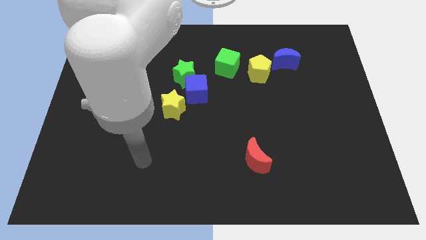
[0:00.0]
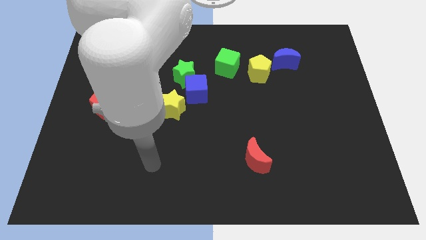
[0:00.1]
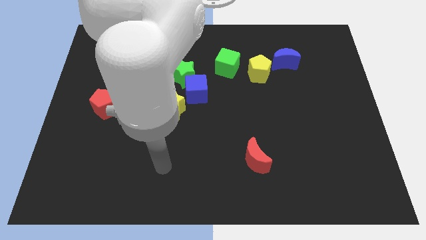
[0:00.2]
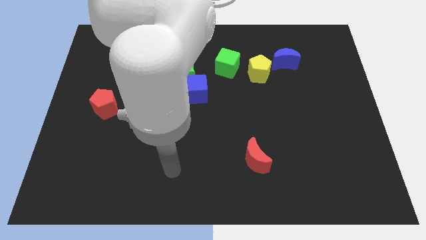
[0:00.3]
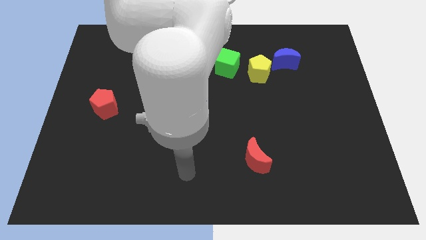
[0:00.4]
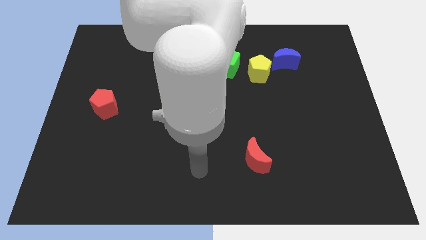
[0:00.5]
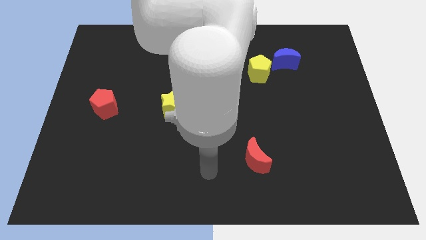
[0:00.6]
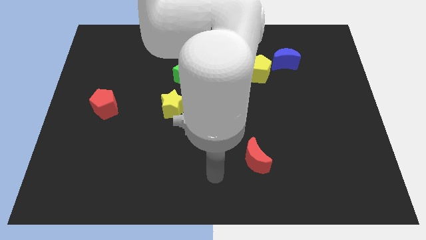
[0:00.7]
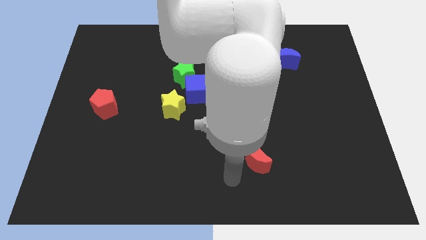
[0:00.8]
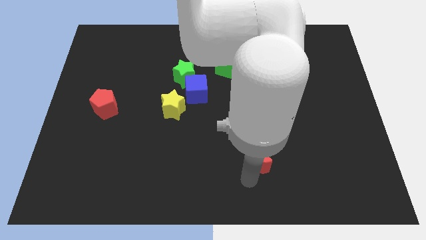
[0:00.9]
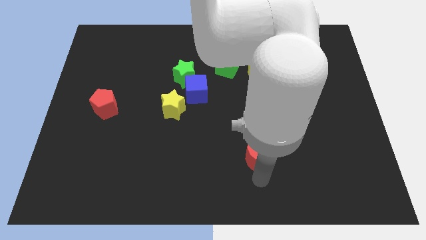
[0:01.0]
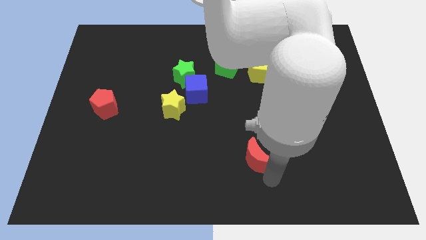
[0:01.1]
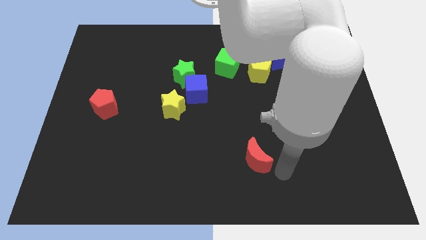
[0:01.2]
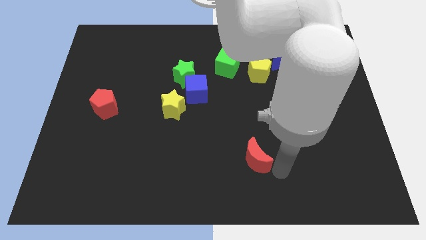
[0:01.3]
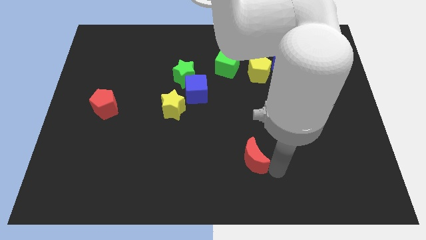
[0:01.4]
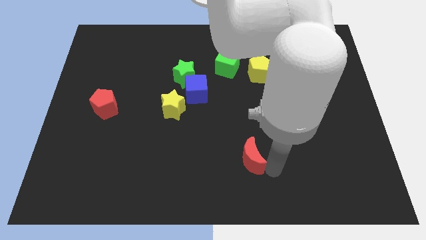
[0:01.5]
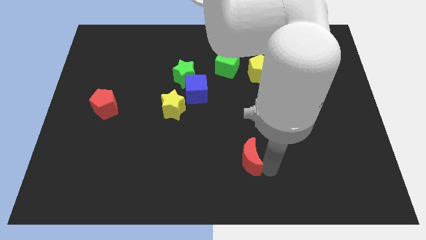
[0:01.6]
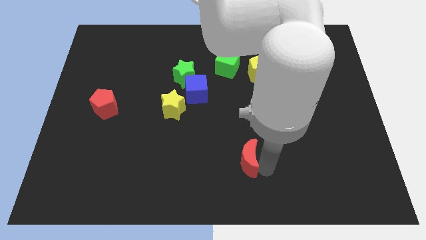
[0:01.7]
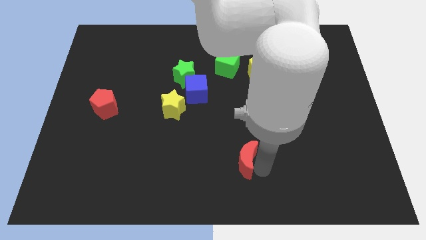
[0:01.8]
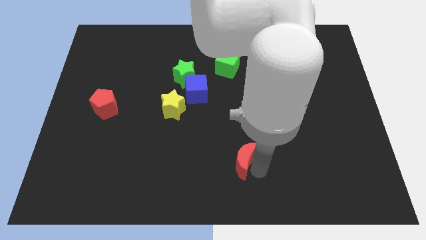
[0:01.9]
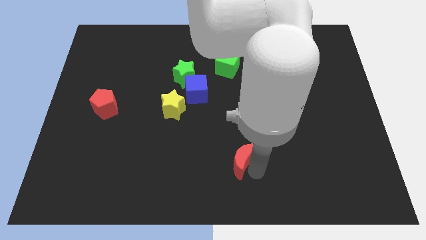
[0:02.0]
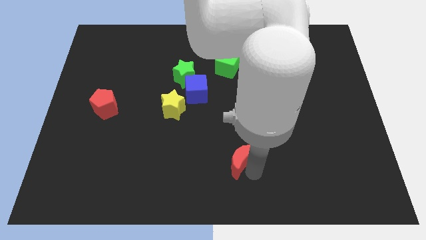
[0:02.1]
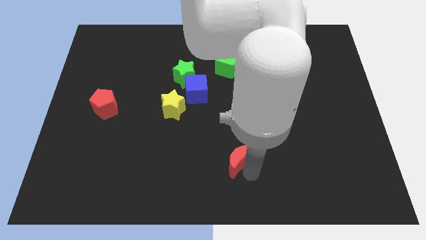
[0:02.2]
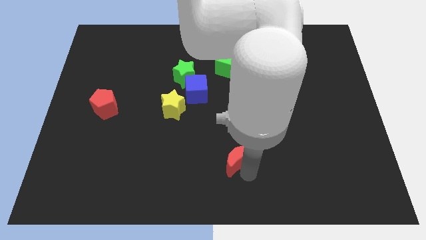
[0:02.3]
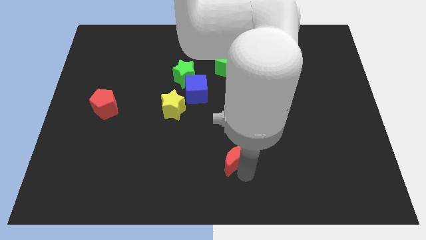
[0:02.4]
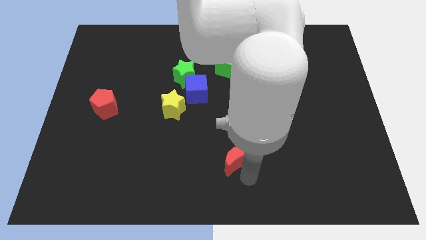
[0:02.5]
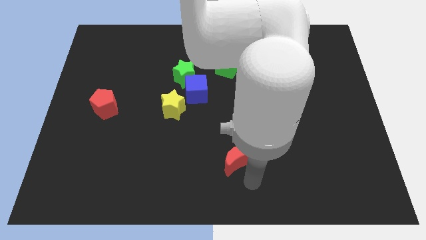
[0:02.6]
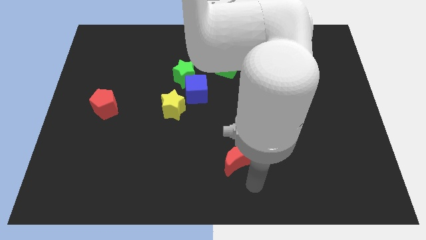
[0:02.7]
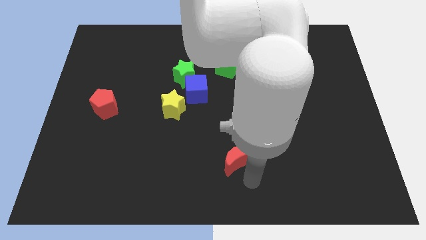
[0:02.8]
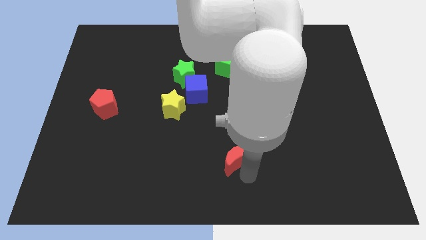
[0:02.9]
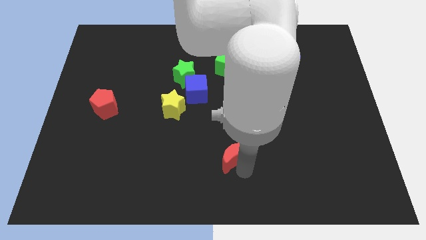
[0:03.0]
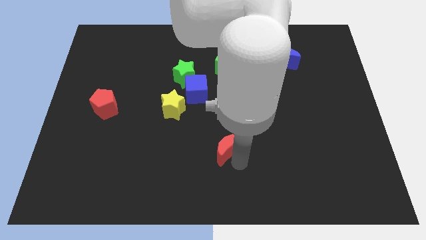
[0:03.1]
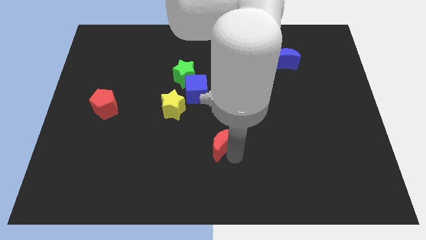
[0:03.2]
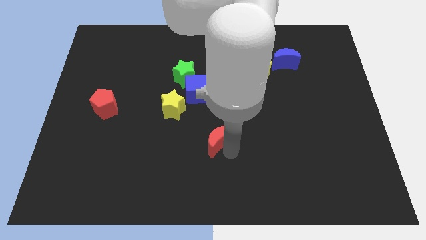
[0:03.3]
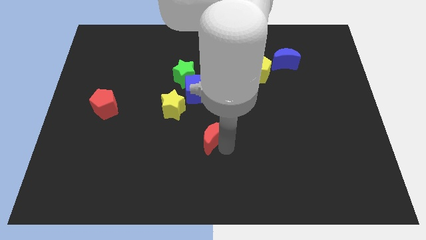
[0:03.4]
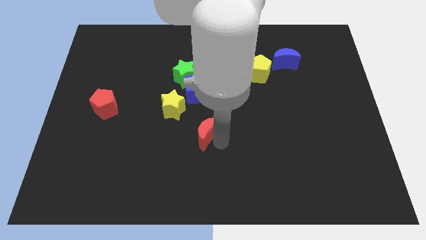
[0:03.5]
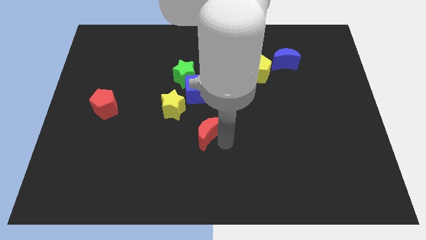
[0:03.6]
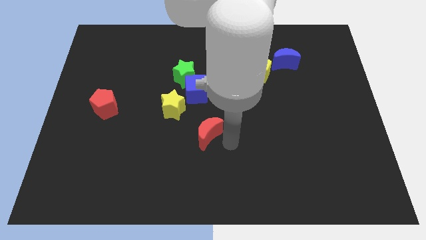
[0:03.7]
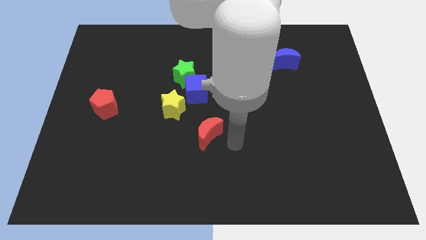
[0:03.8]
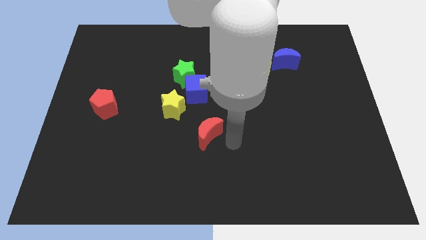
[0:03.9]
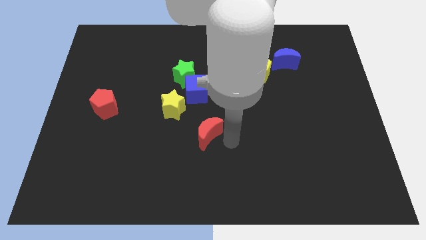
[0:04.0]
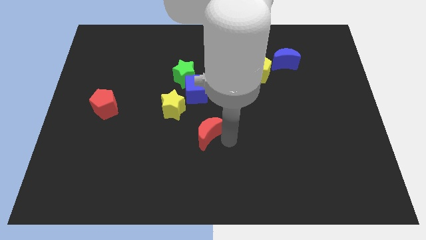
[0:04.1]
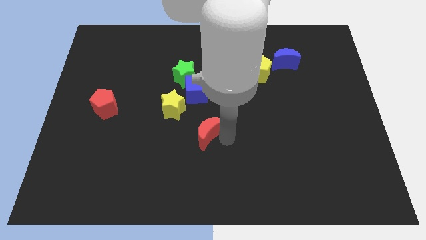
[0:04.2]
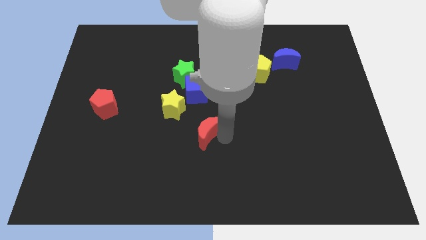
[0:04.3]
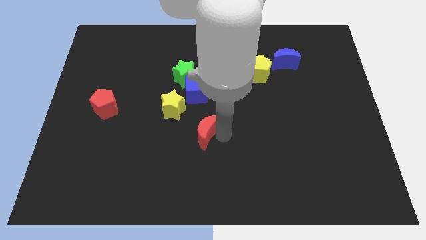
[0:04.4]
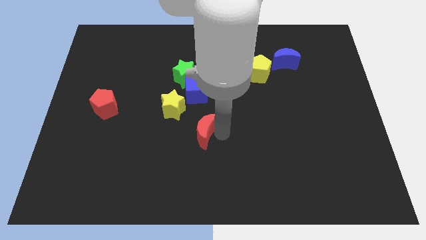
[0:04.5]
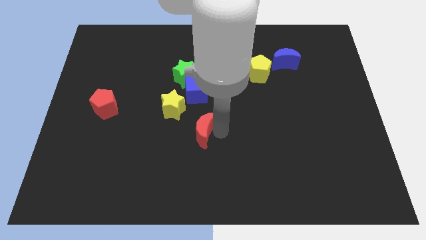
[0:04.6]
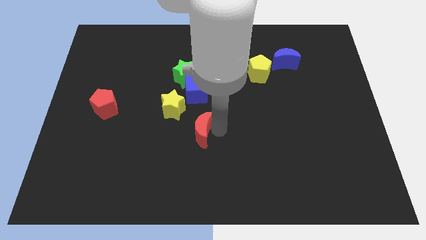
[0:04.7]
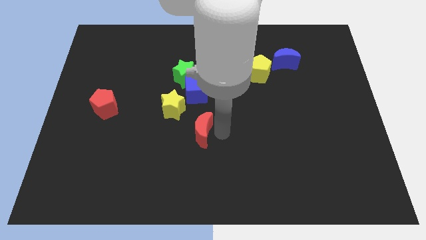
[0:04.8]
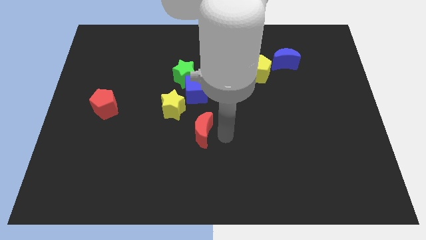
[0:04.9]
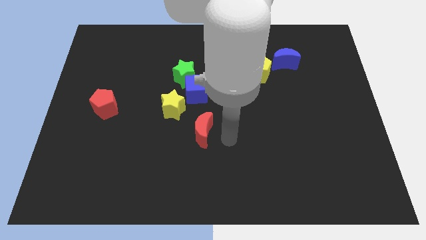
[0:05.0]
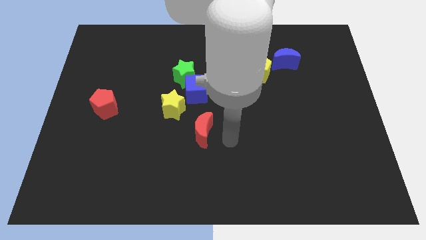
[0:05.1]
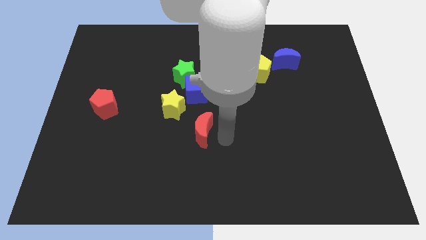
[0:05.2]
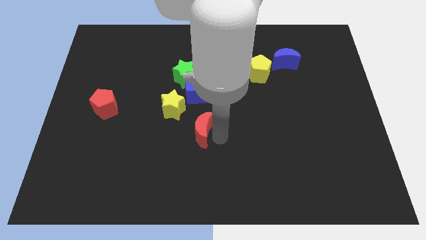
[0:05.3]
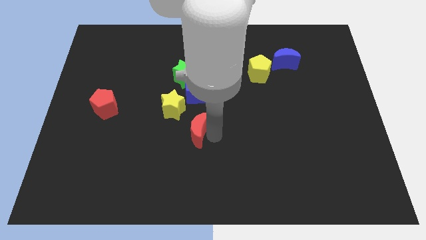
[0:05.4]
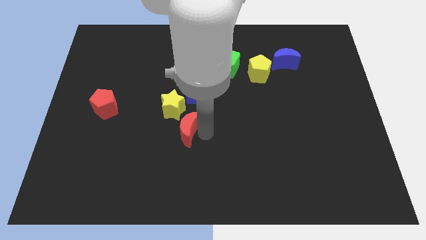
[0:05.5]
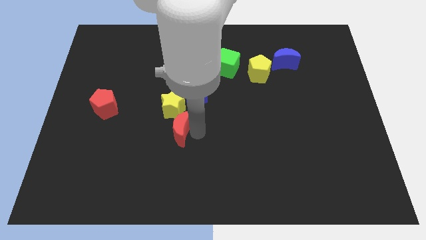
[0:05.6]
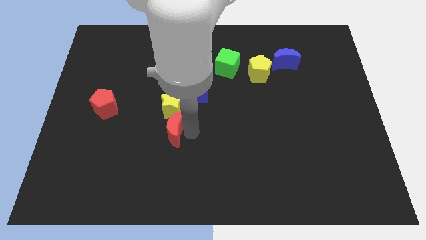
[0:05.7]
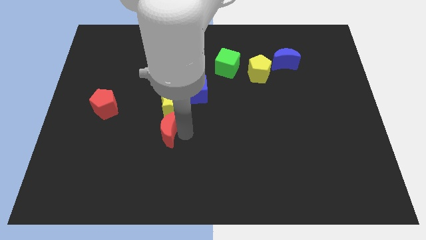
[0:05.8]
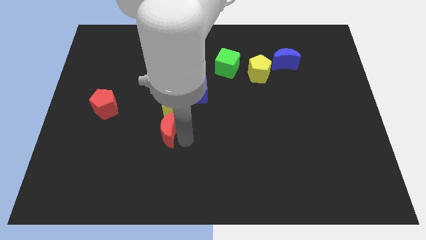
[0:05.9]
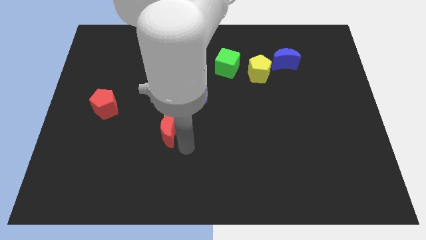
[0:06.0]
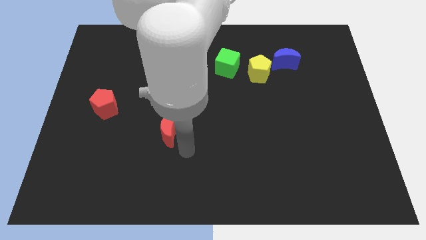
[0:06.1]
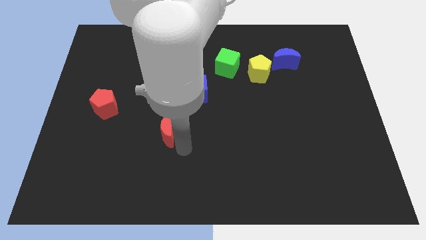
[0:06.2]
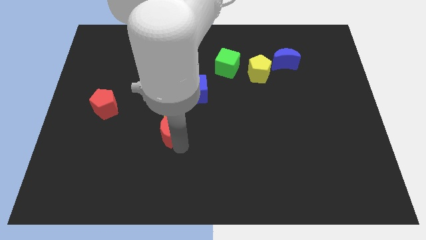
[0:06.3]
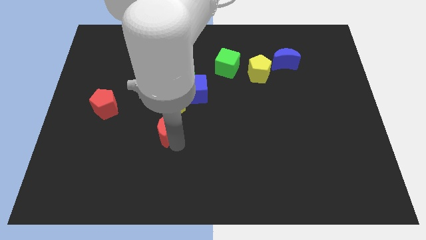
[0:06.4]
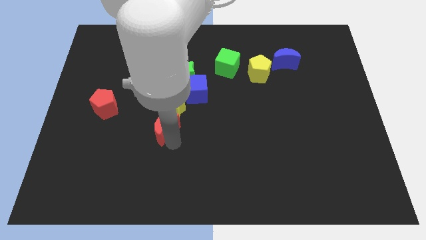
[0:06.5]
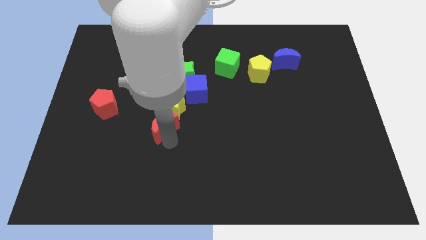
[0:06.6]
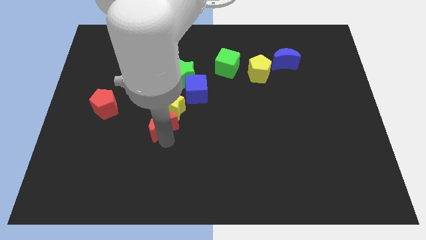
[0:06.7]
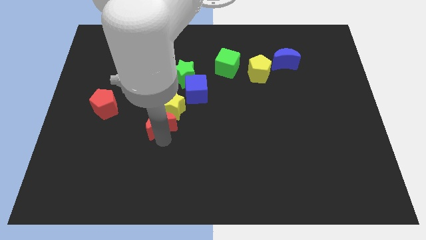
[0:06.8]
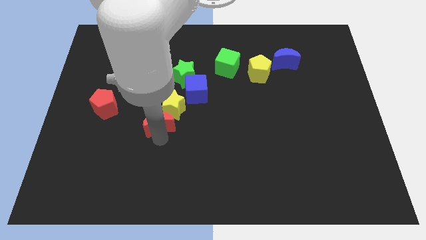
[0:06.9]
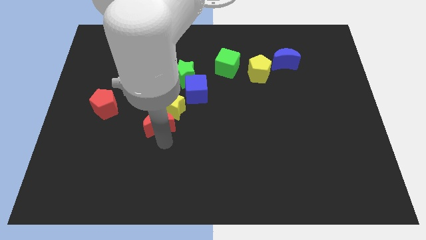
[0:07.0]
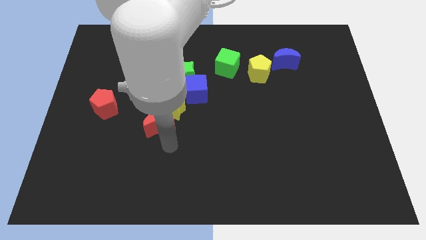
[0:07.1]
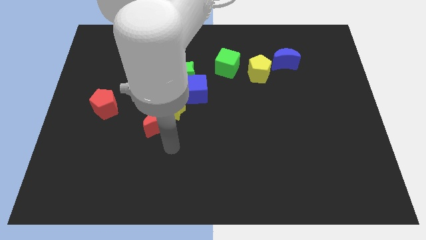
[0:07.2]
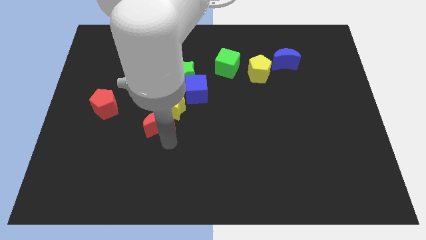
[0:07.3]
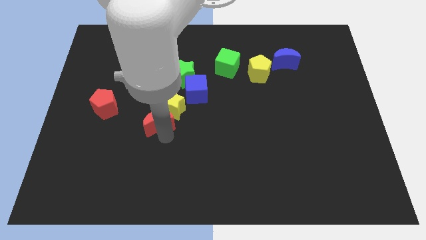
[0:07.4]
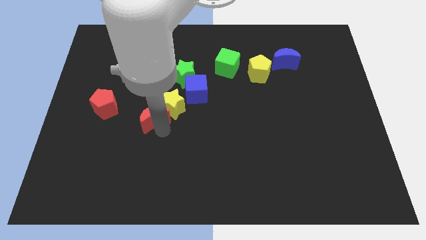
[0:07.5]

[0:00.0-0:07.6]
push the red moon just right of the red pentagon
